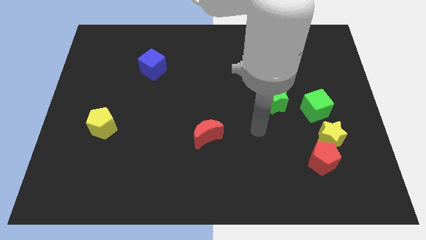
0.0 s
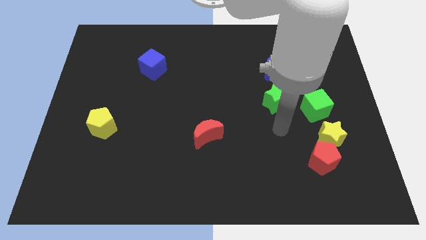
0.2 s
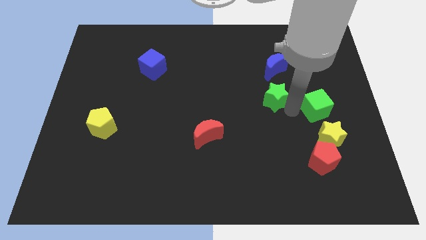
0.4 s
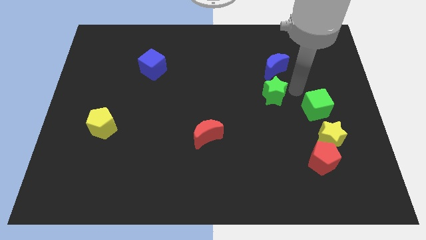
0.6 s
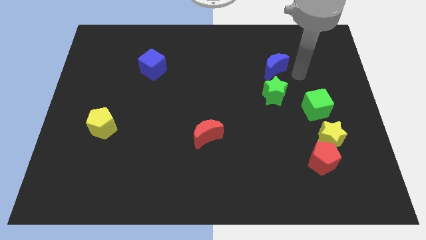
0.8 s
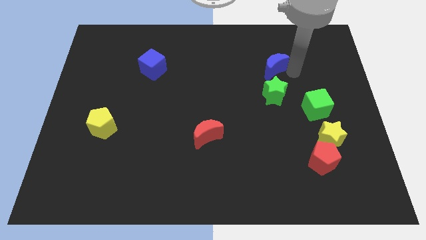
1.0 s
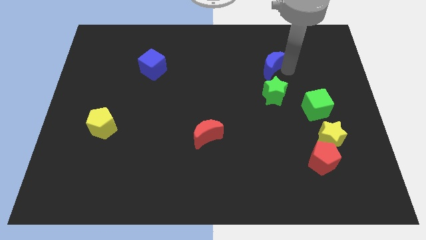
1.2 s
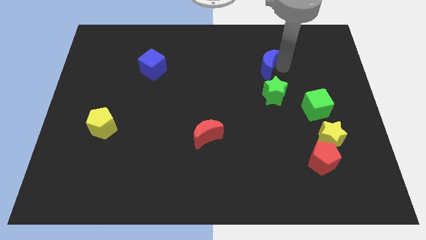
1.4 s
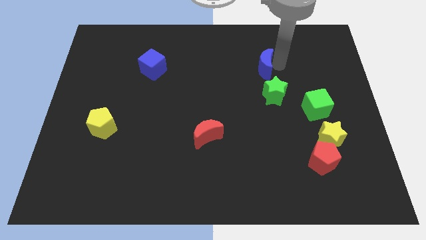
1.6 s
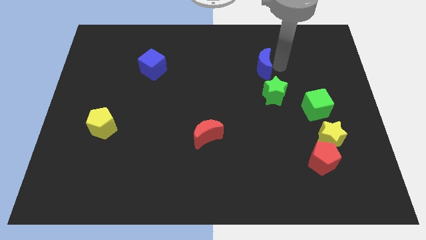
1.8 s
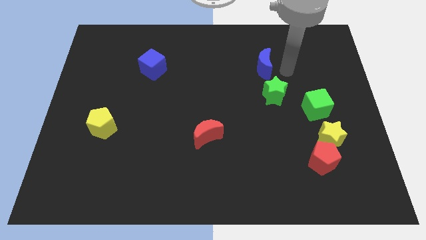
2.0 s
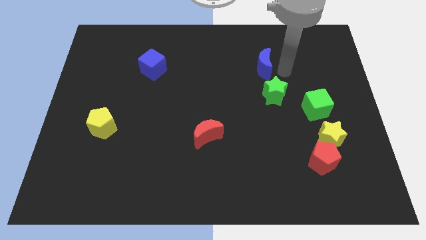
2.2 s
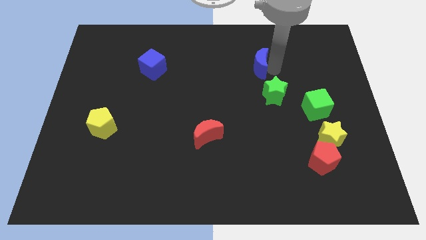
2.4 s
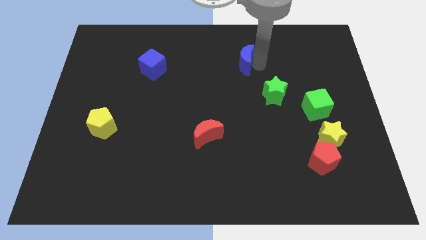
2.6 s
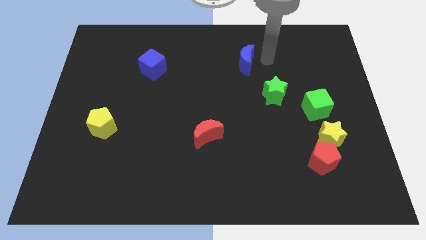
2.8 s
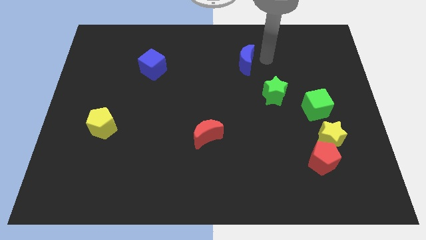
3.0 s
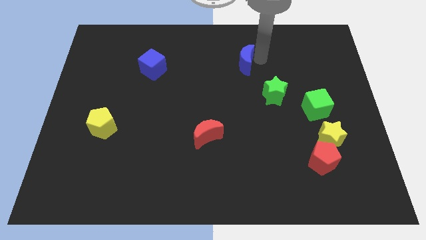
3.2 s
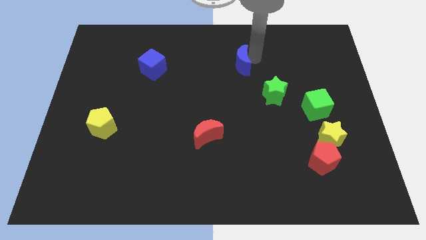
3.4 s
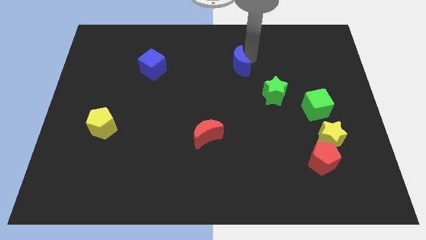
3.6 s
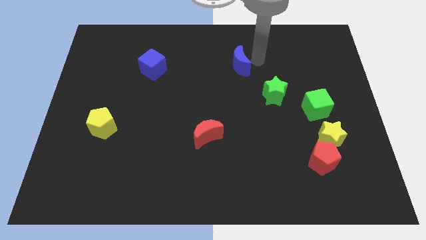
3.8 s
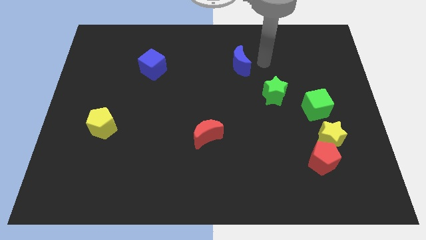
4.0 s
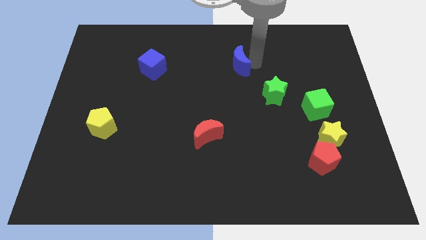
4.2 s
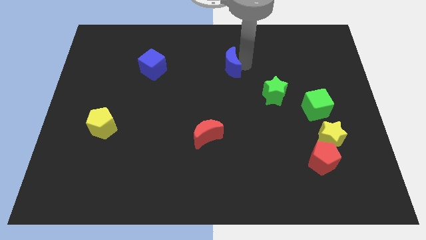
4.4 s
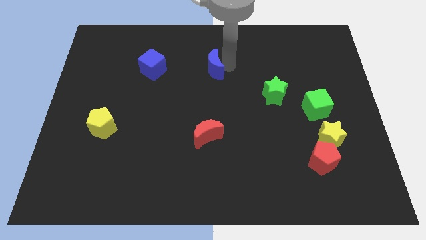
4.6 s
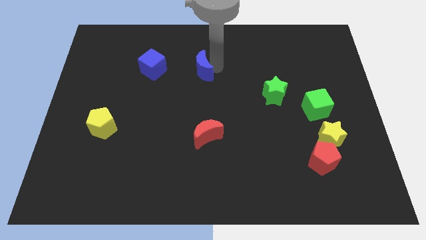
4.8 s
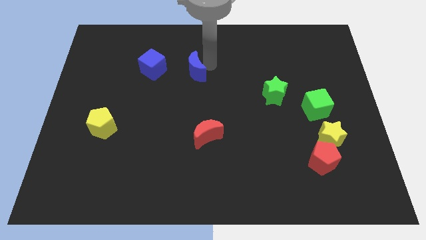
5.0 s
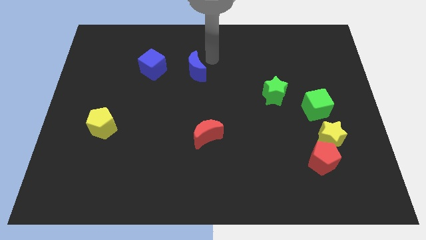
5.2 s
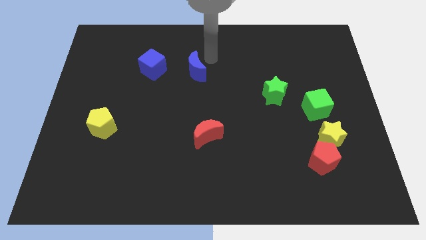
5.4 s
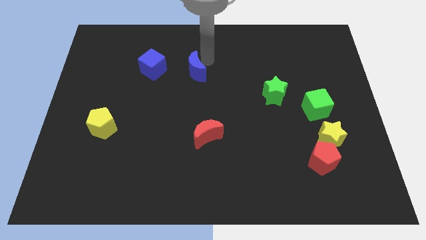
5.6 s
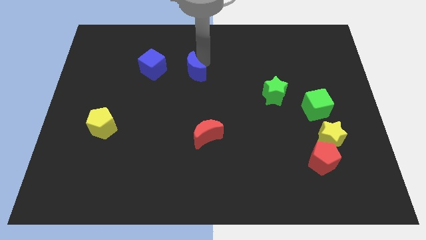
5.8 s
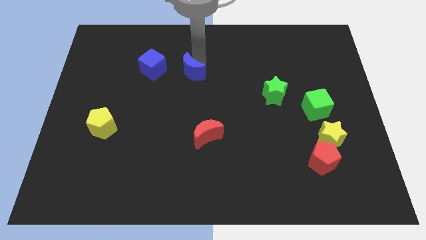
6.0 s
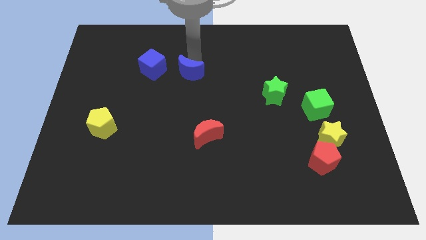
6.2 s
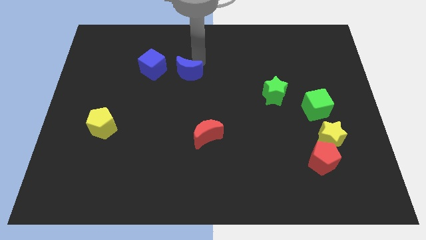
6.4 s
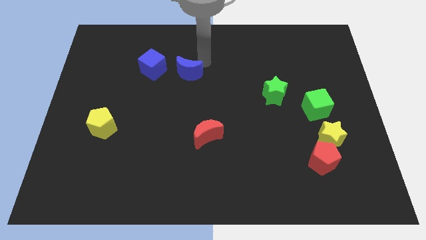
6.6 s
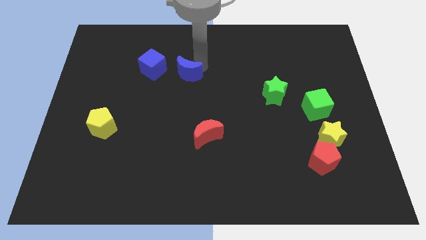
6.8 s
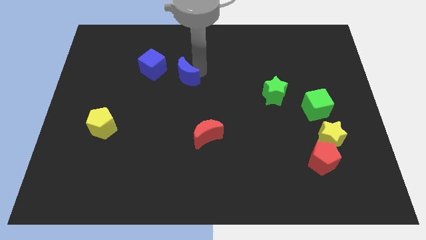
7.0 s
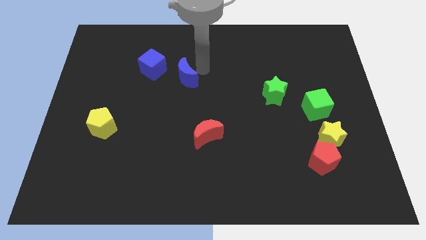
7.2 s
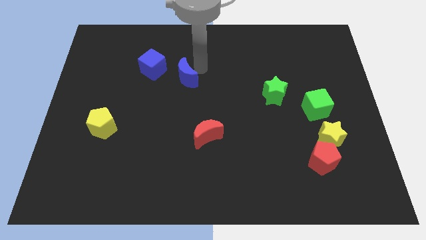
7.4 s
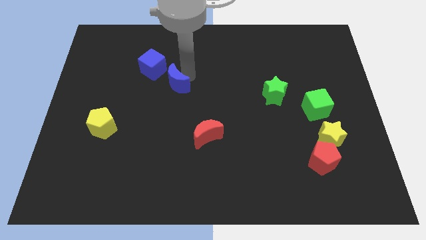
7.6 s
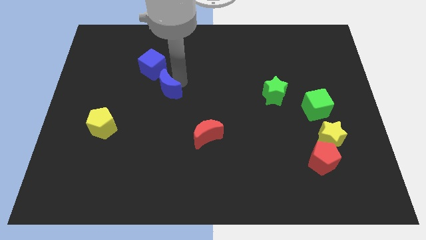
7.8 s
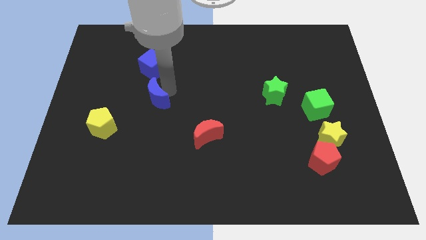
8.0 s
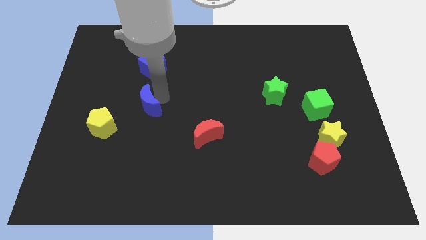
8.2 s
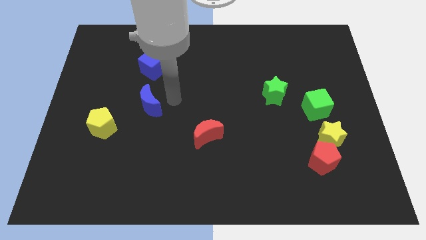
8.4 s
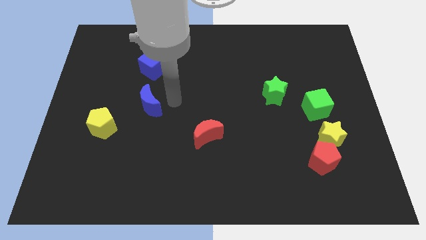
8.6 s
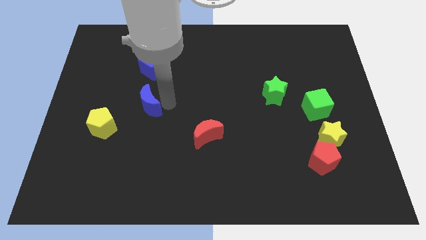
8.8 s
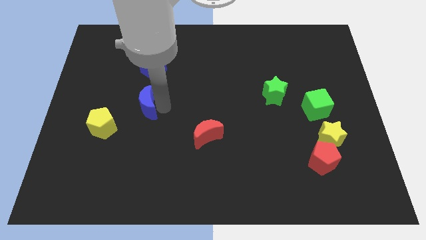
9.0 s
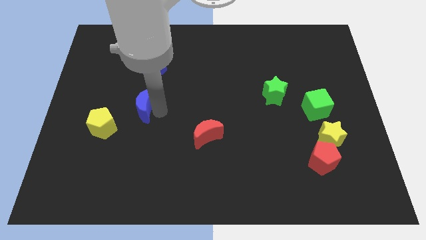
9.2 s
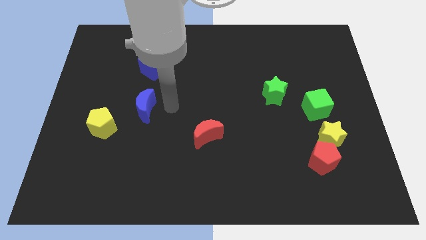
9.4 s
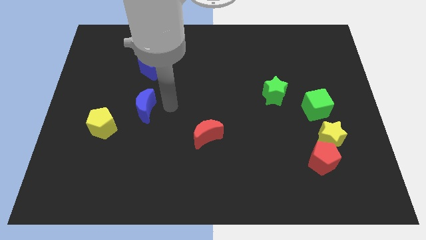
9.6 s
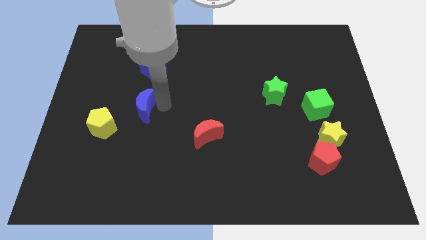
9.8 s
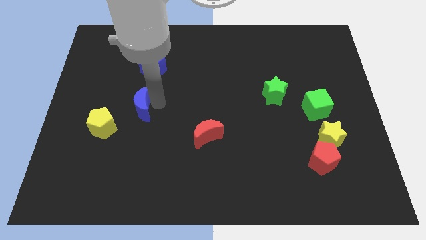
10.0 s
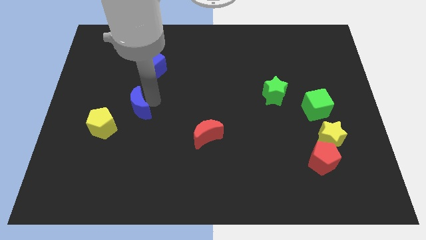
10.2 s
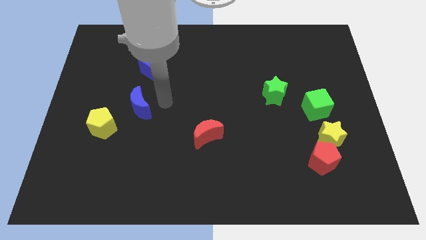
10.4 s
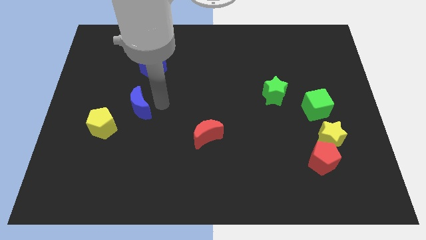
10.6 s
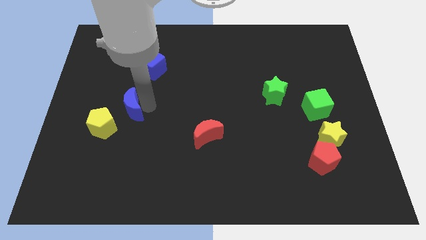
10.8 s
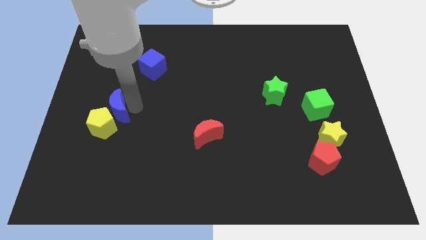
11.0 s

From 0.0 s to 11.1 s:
move the blue moon towards the yellow pentagon

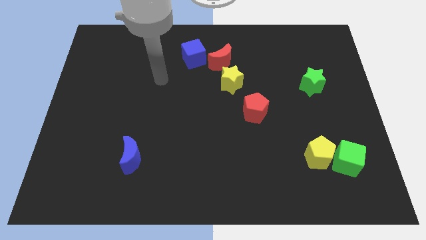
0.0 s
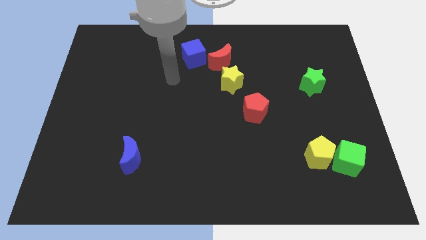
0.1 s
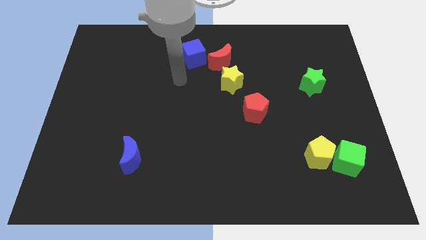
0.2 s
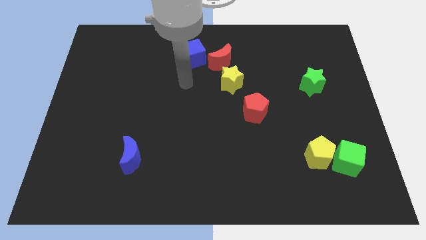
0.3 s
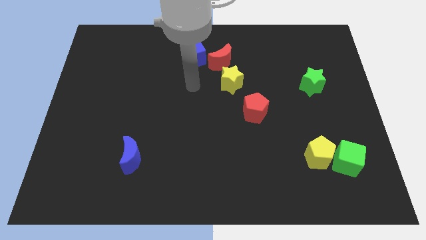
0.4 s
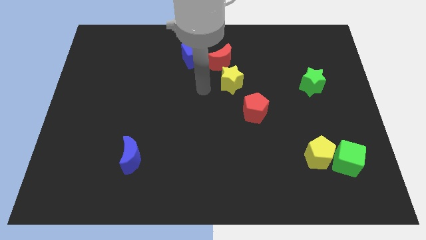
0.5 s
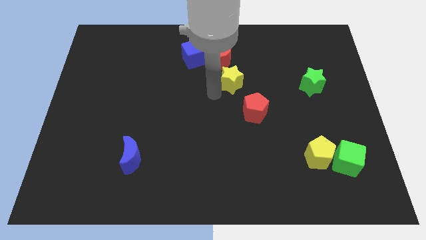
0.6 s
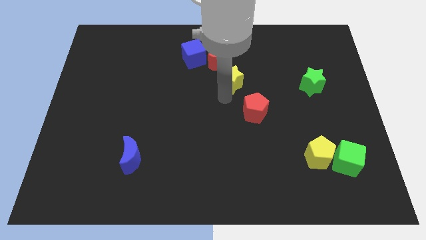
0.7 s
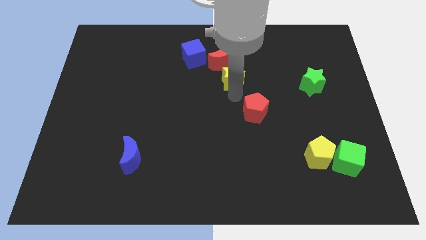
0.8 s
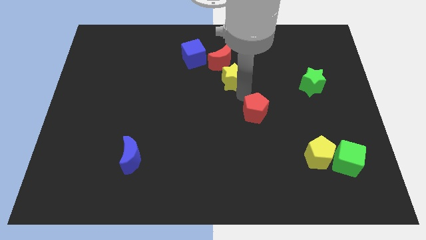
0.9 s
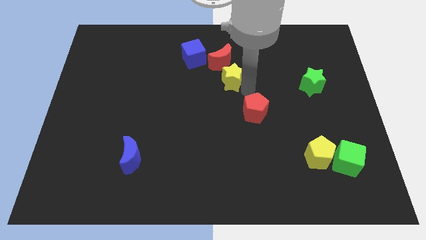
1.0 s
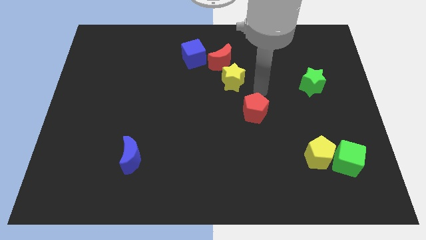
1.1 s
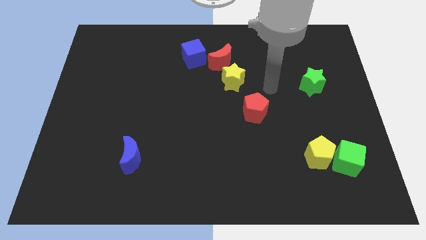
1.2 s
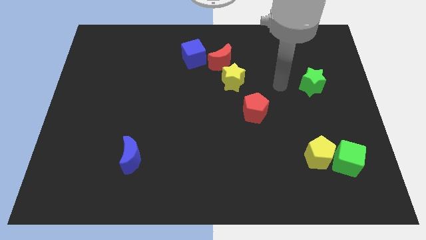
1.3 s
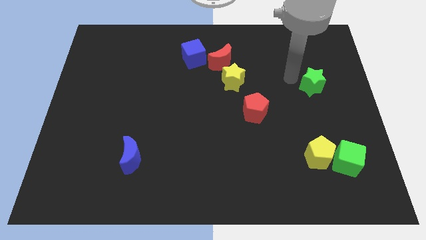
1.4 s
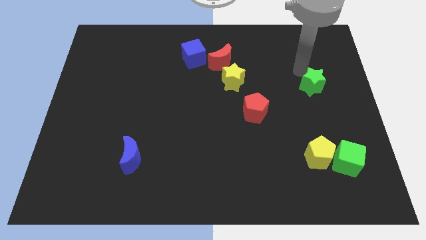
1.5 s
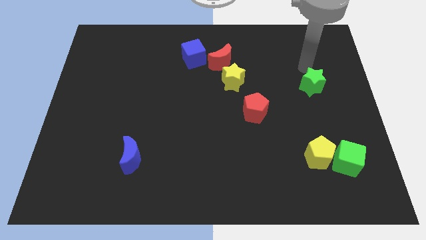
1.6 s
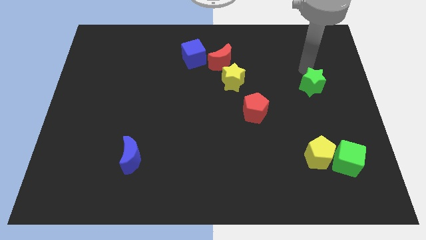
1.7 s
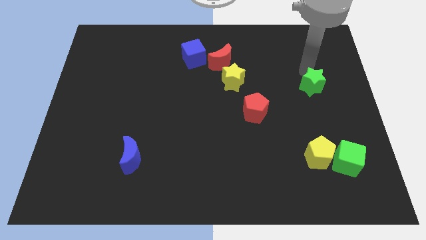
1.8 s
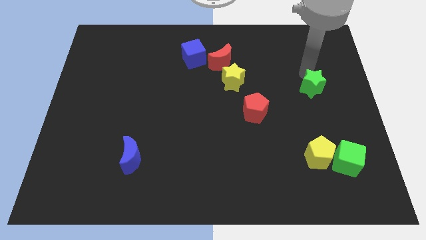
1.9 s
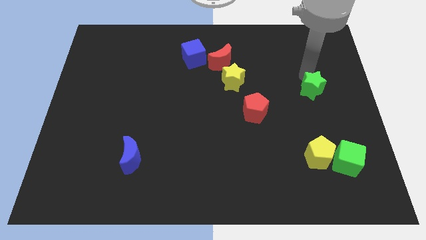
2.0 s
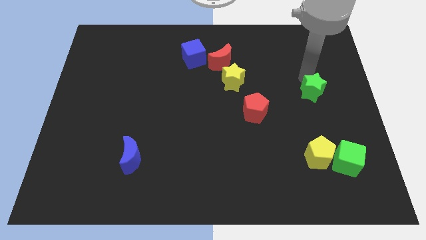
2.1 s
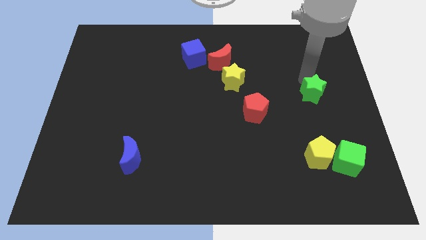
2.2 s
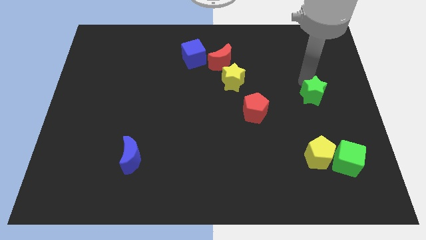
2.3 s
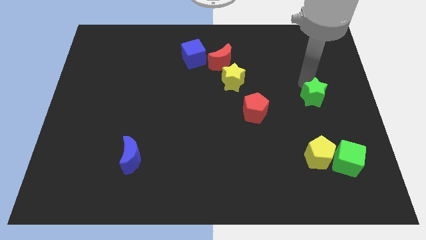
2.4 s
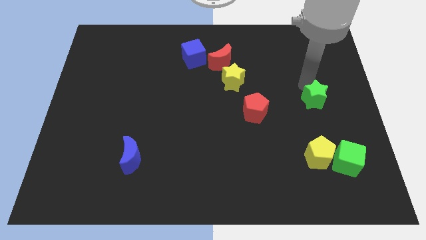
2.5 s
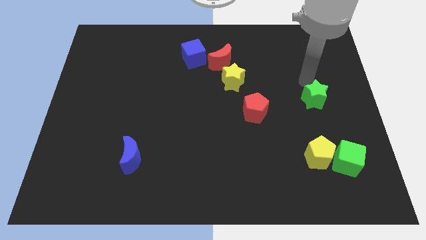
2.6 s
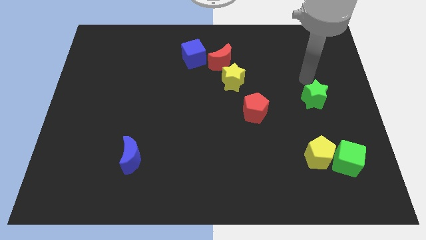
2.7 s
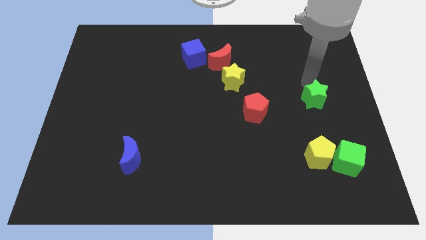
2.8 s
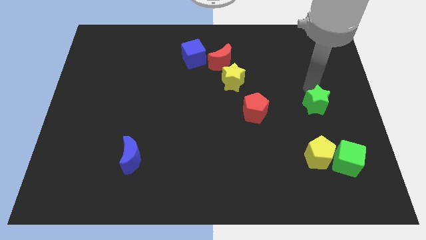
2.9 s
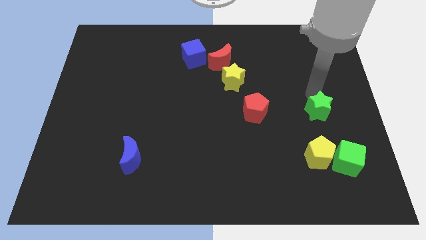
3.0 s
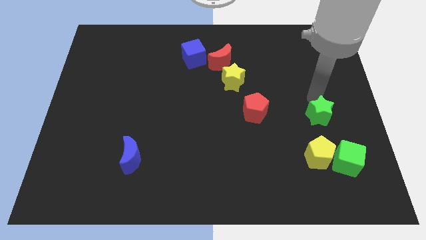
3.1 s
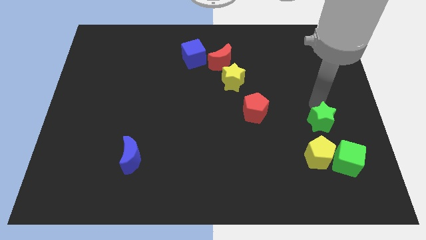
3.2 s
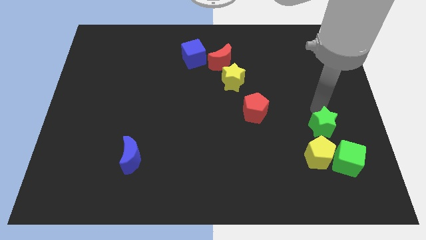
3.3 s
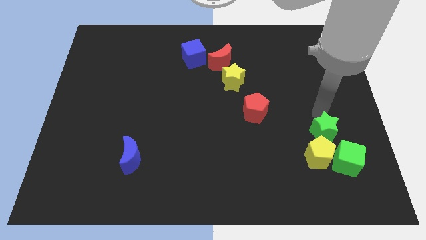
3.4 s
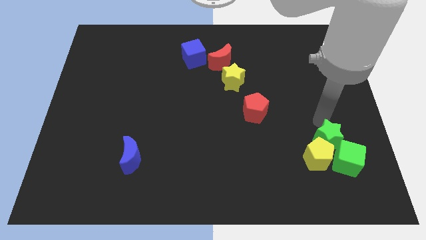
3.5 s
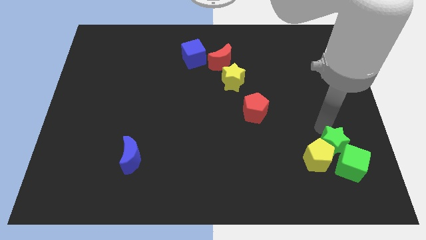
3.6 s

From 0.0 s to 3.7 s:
put the green star close to the green cube
